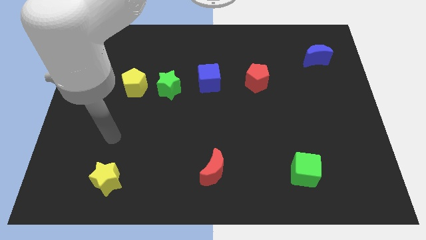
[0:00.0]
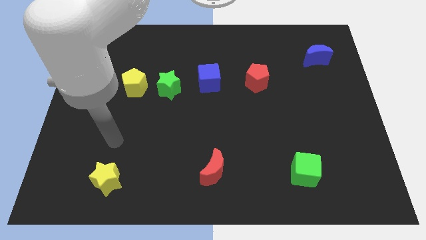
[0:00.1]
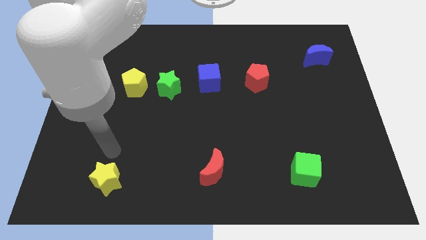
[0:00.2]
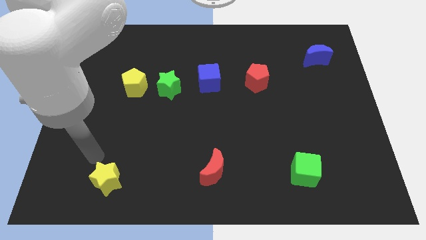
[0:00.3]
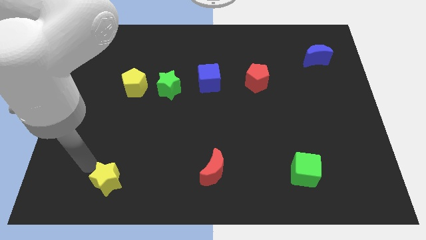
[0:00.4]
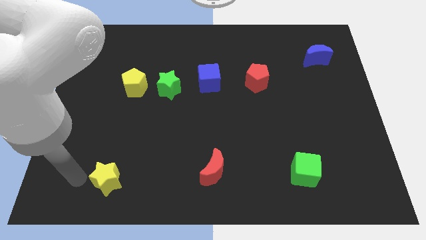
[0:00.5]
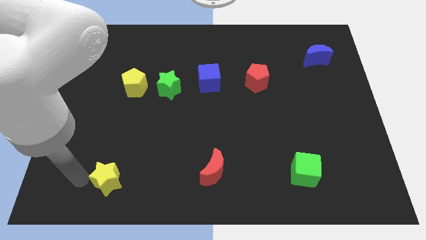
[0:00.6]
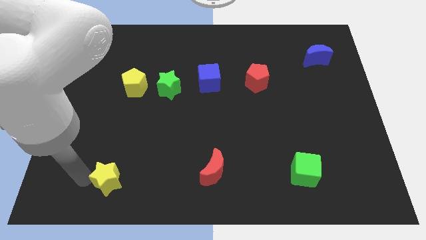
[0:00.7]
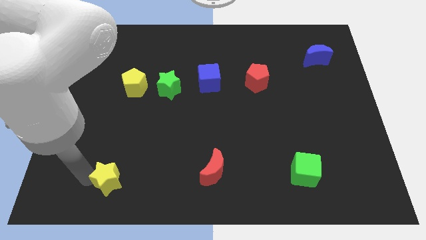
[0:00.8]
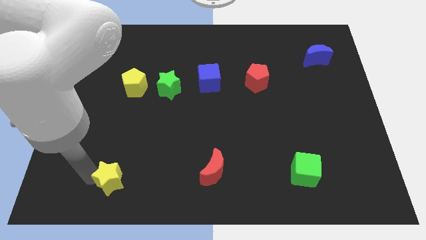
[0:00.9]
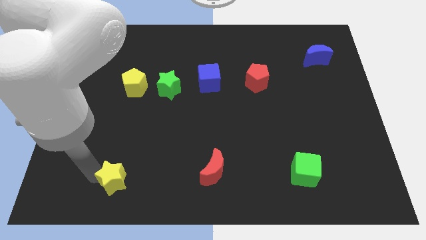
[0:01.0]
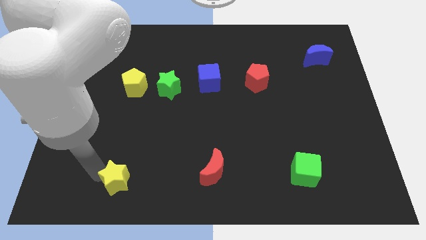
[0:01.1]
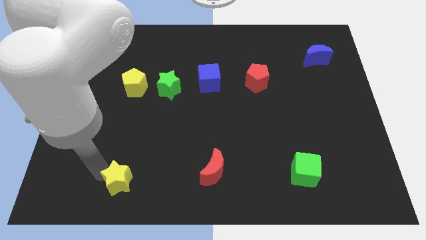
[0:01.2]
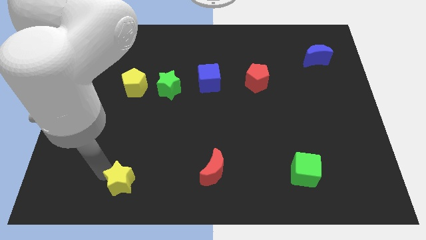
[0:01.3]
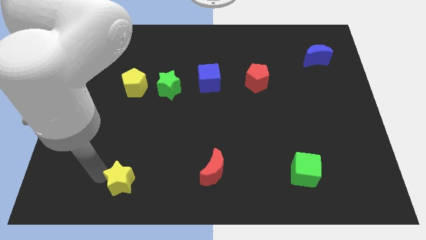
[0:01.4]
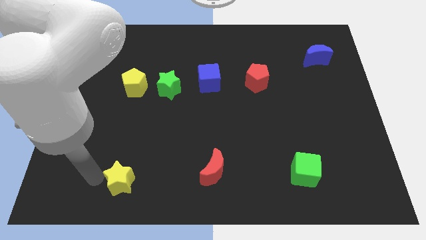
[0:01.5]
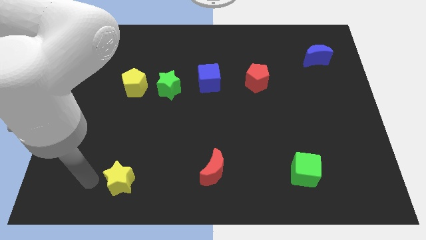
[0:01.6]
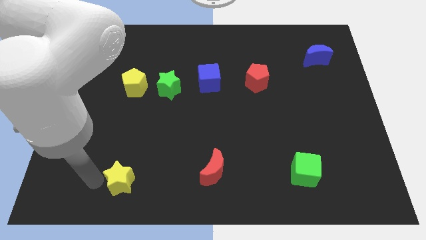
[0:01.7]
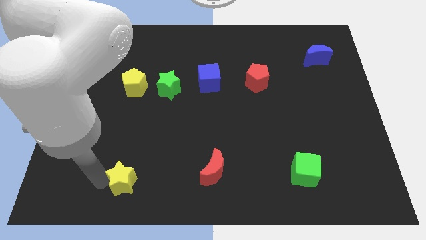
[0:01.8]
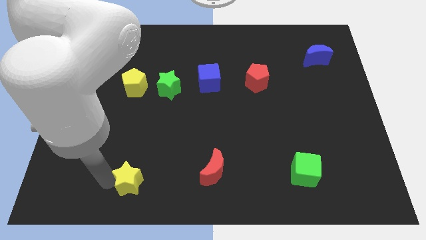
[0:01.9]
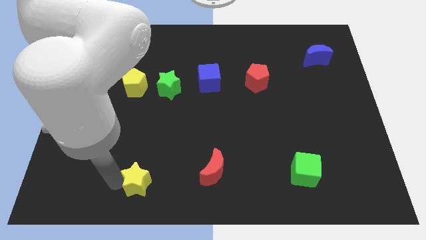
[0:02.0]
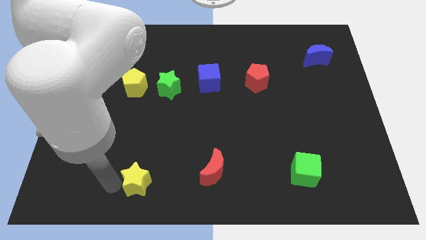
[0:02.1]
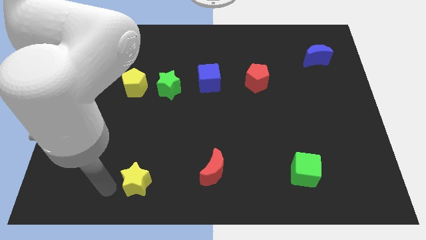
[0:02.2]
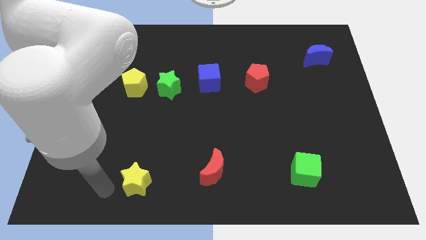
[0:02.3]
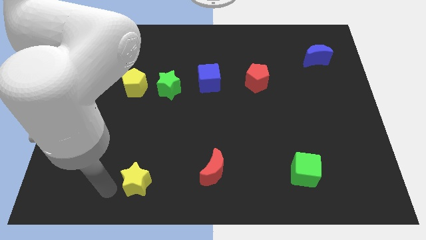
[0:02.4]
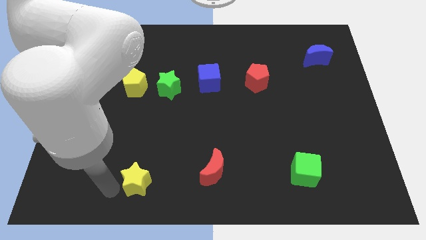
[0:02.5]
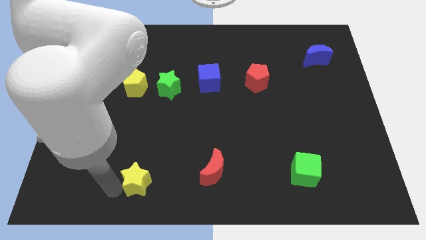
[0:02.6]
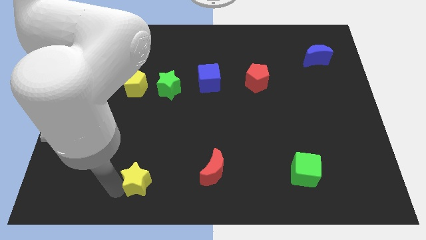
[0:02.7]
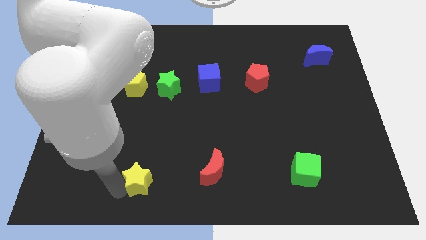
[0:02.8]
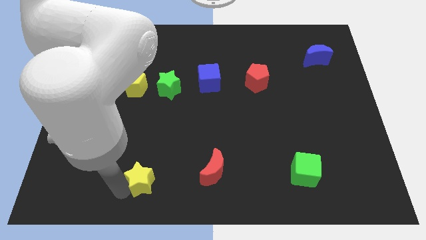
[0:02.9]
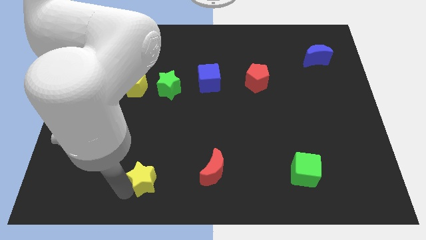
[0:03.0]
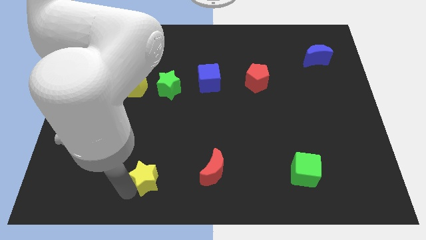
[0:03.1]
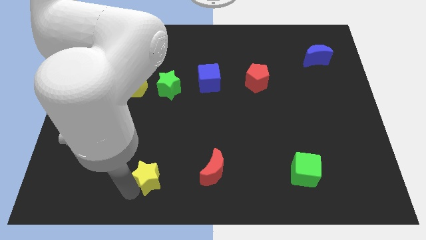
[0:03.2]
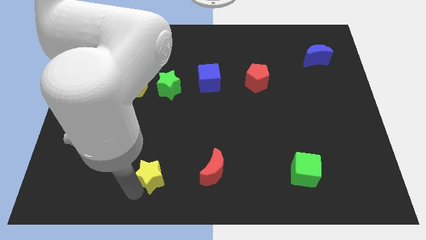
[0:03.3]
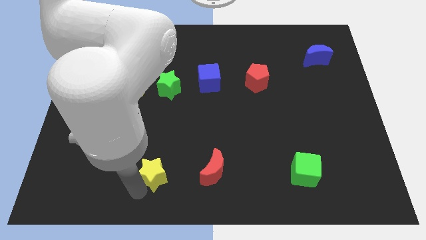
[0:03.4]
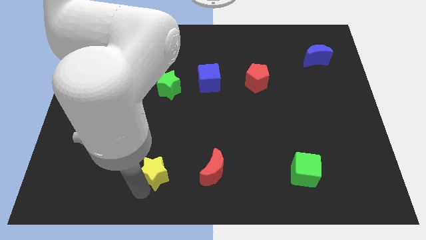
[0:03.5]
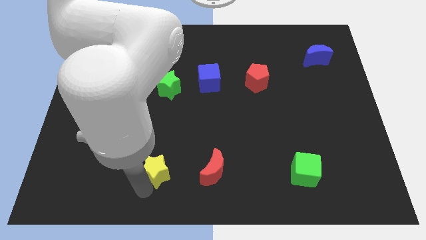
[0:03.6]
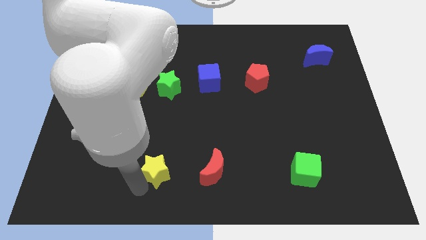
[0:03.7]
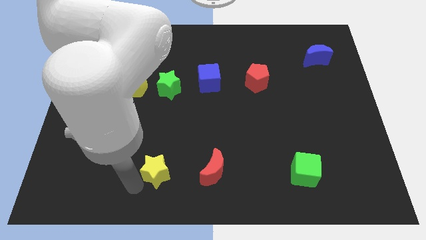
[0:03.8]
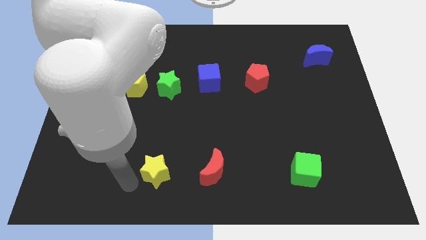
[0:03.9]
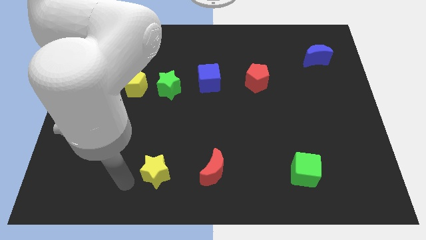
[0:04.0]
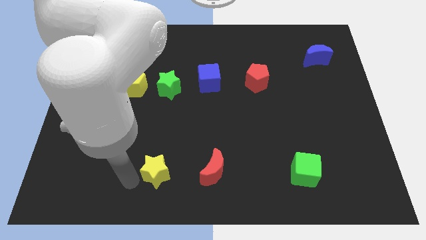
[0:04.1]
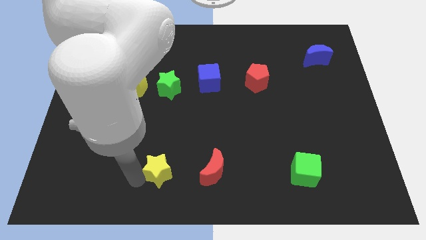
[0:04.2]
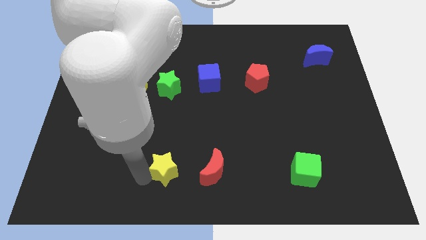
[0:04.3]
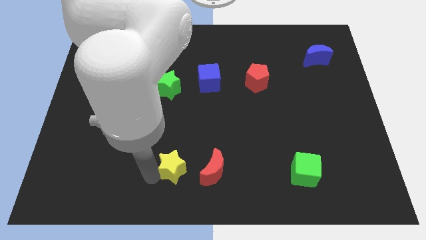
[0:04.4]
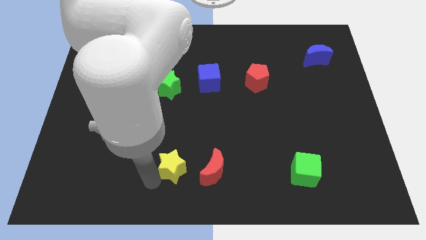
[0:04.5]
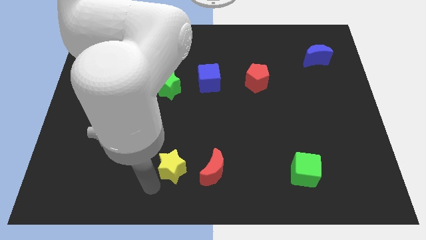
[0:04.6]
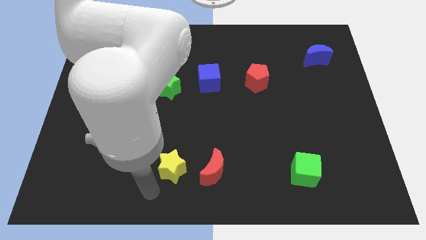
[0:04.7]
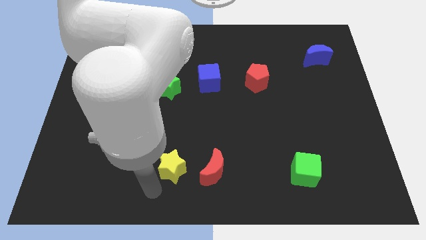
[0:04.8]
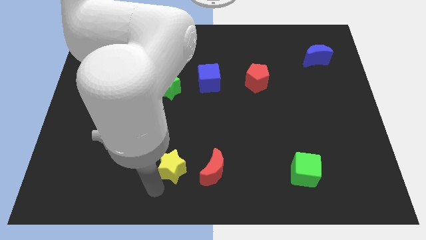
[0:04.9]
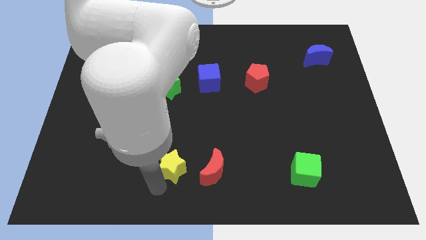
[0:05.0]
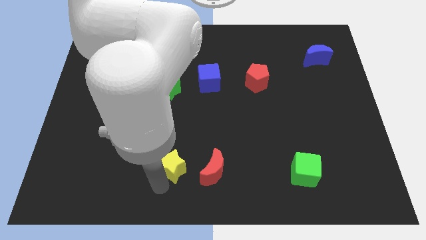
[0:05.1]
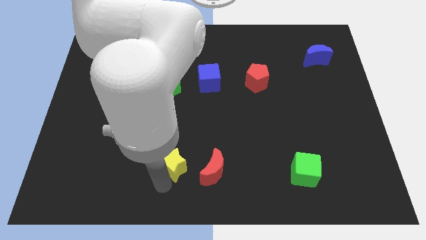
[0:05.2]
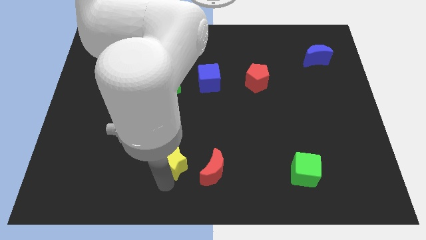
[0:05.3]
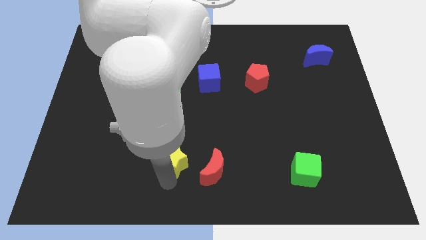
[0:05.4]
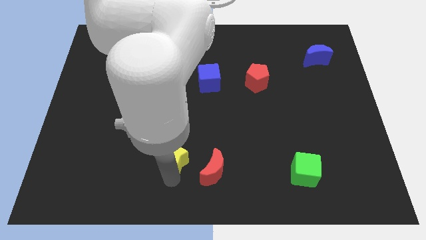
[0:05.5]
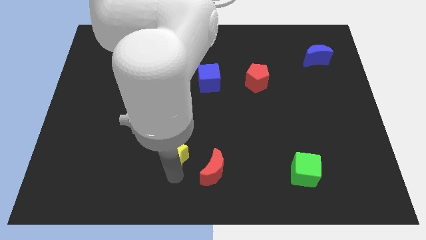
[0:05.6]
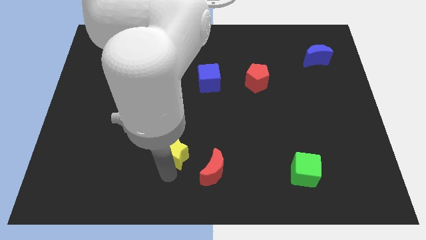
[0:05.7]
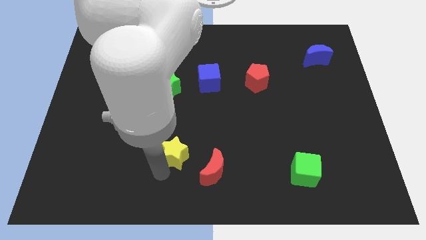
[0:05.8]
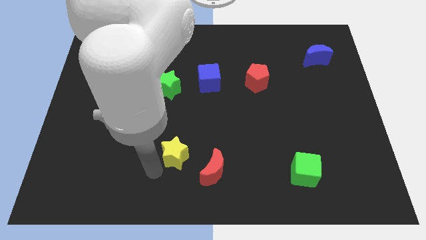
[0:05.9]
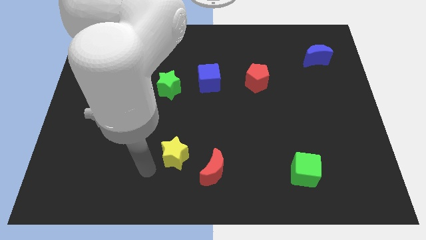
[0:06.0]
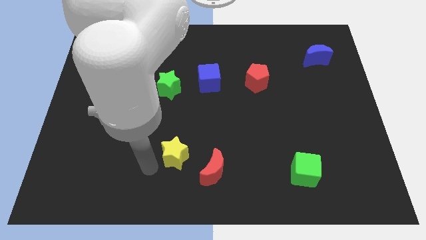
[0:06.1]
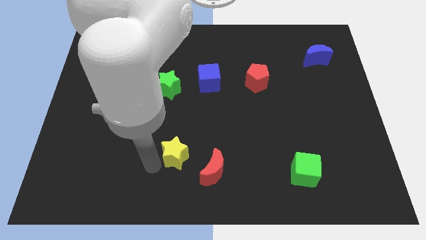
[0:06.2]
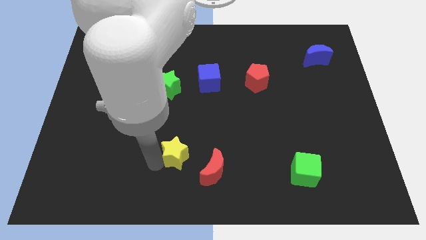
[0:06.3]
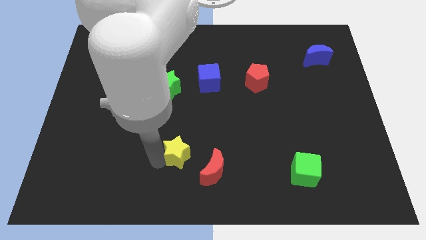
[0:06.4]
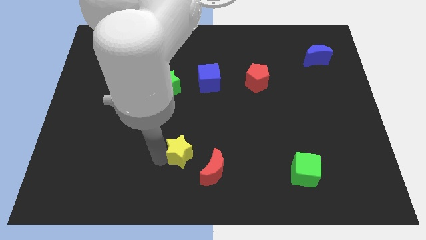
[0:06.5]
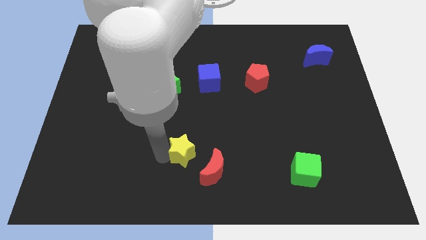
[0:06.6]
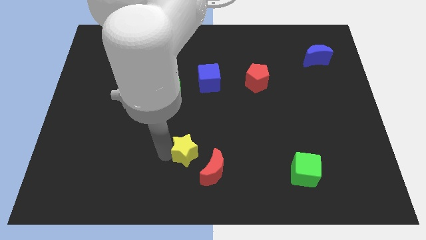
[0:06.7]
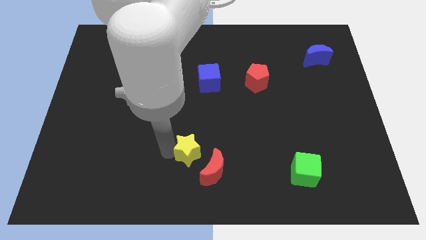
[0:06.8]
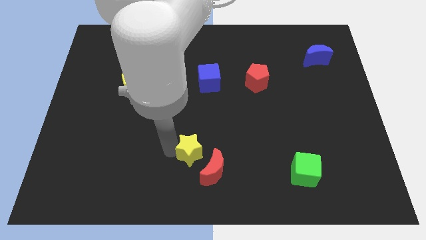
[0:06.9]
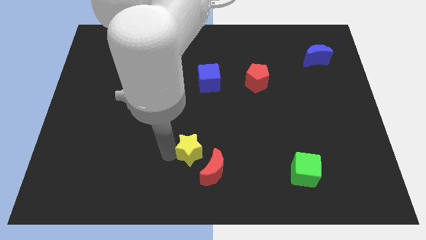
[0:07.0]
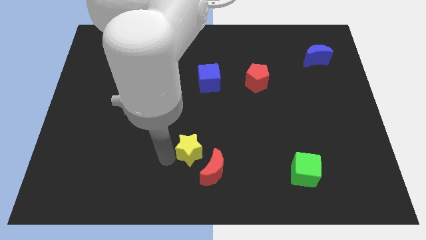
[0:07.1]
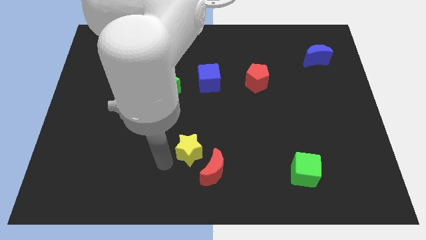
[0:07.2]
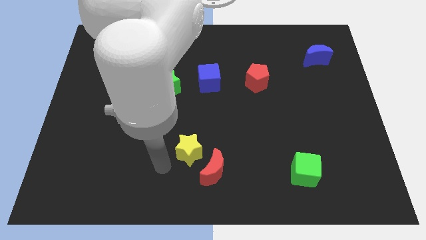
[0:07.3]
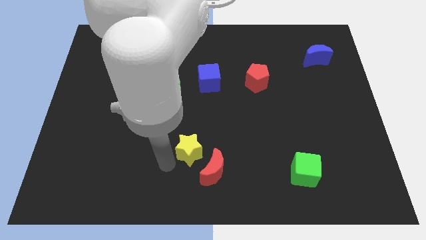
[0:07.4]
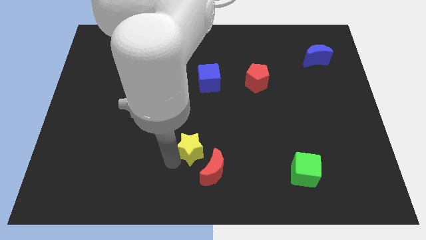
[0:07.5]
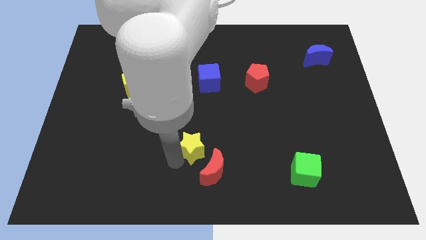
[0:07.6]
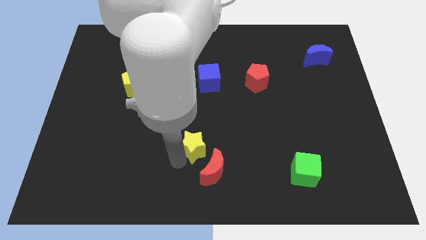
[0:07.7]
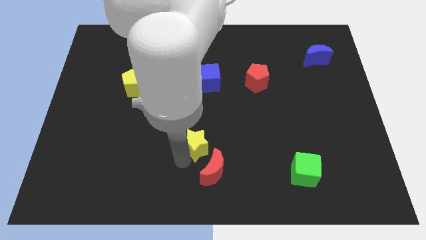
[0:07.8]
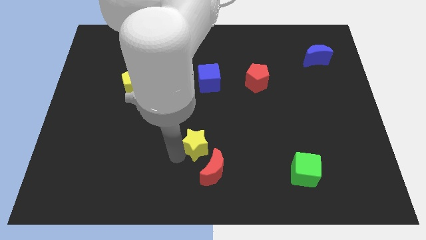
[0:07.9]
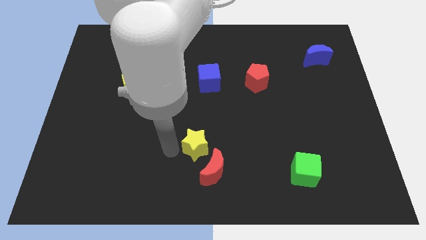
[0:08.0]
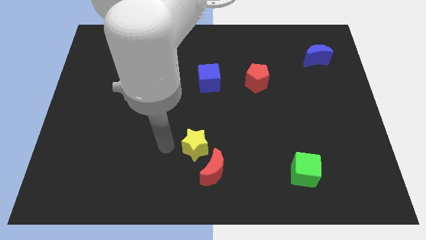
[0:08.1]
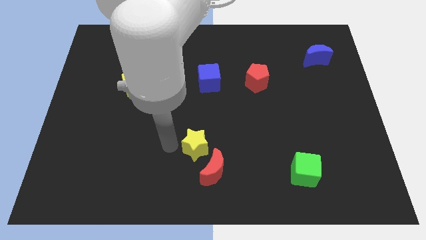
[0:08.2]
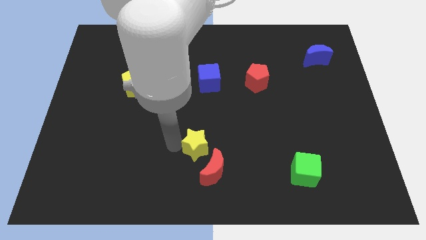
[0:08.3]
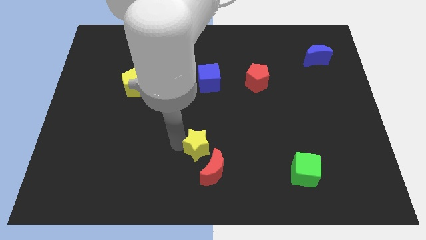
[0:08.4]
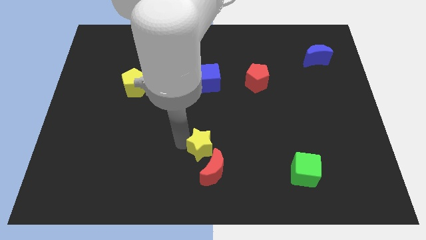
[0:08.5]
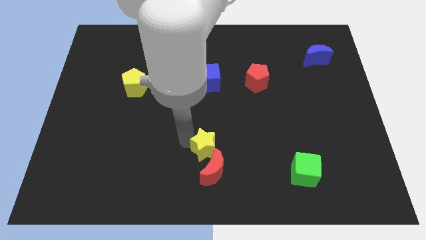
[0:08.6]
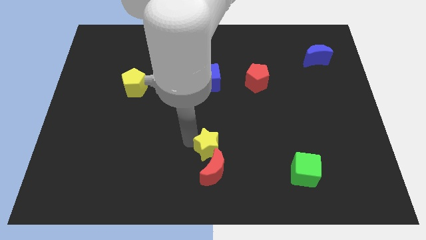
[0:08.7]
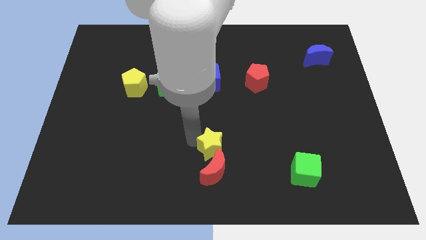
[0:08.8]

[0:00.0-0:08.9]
push the yellow star diagonally up and to the right of the red moon
